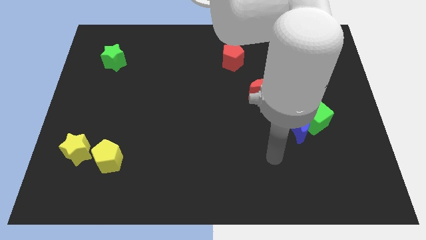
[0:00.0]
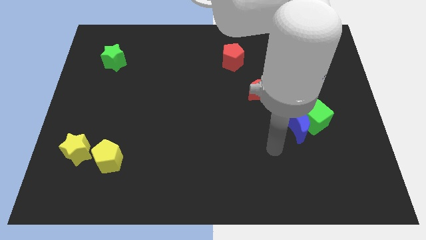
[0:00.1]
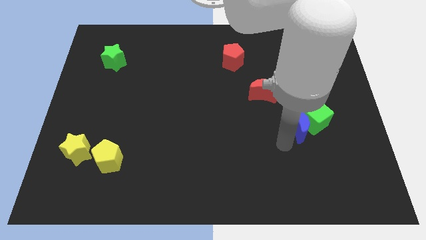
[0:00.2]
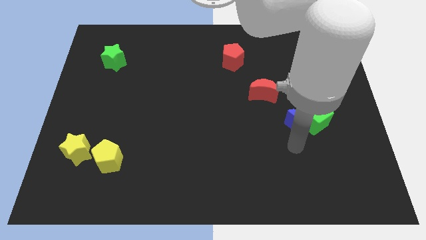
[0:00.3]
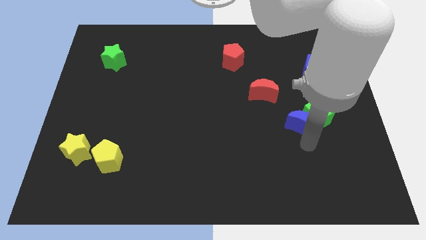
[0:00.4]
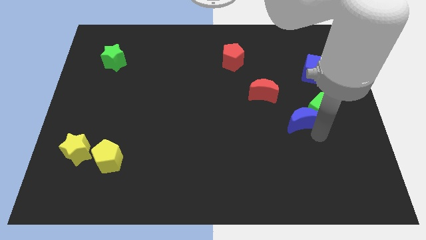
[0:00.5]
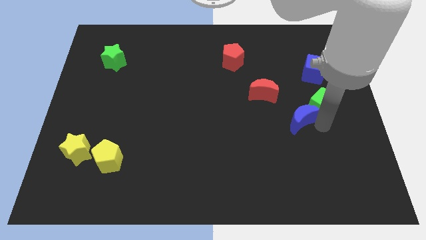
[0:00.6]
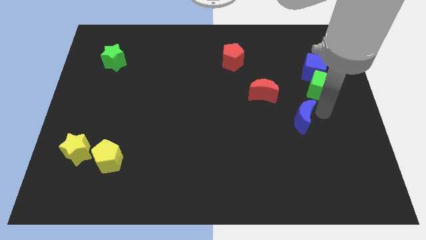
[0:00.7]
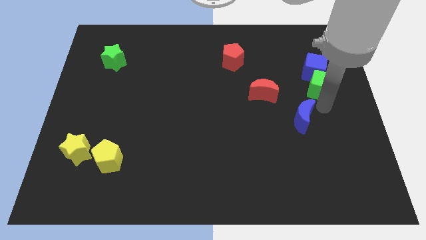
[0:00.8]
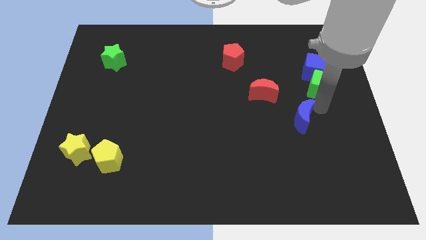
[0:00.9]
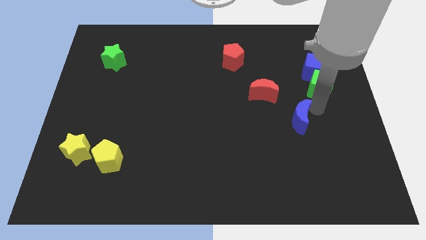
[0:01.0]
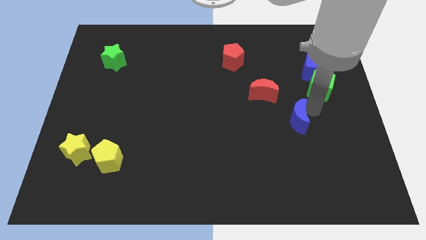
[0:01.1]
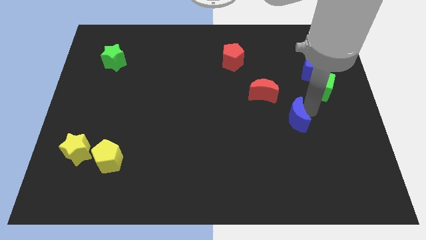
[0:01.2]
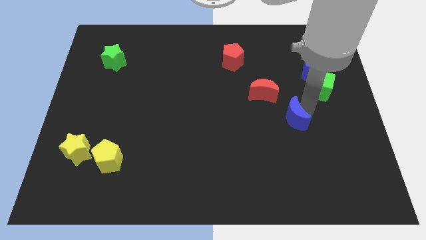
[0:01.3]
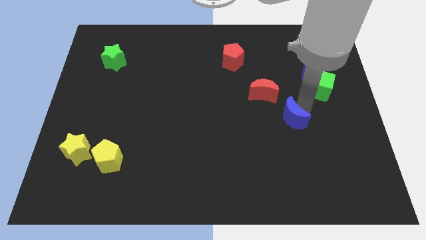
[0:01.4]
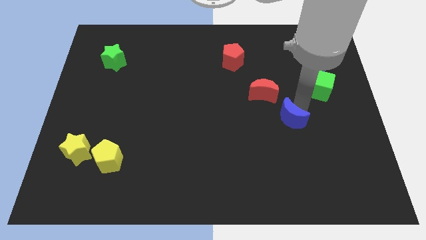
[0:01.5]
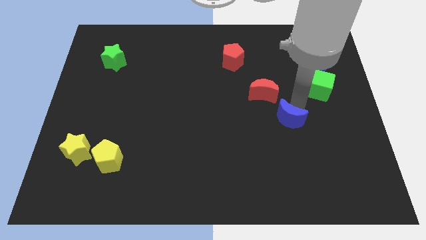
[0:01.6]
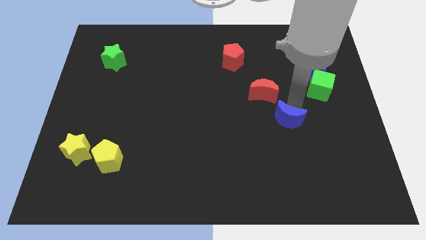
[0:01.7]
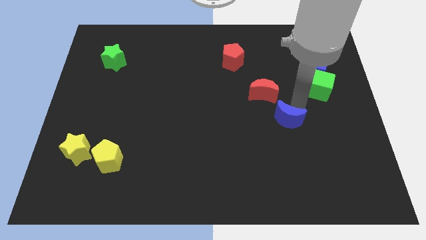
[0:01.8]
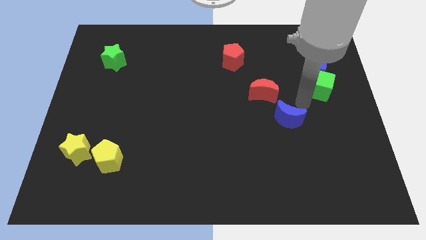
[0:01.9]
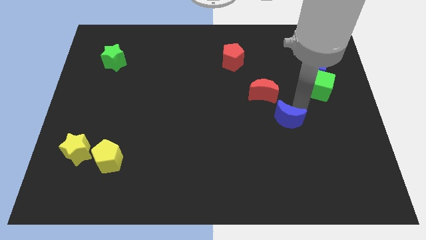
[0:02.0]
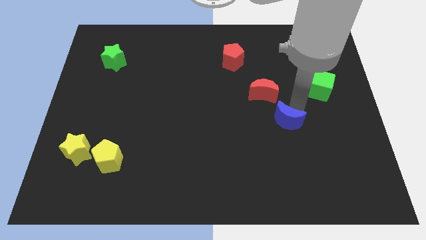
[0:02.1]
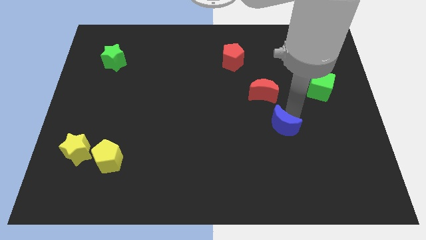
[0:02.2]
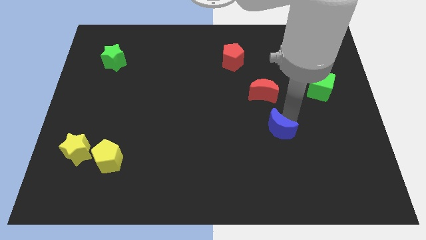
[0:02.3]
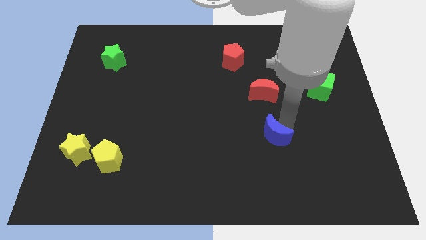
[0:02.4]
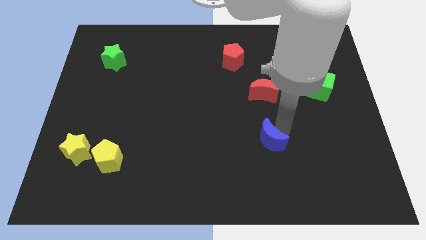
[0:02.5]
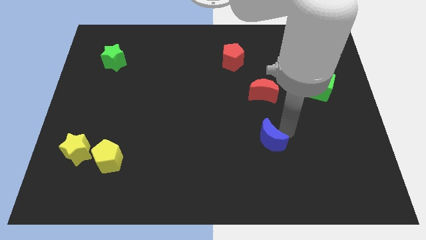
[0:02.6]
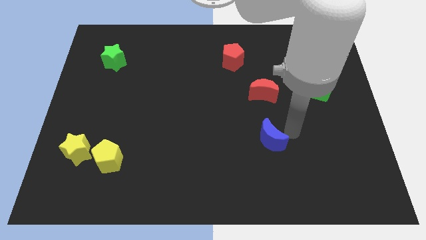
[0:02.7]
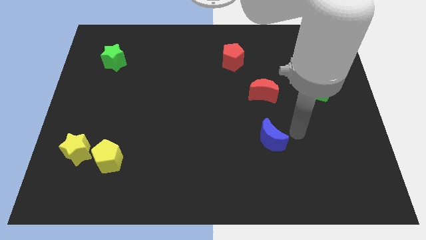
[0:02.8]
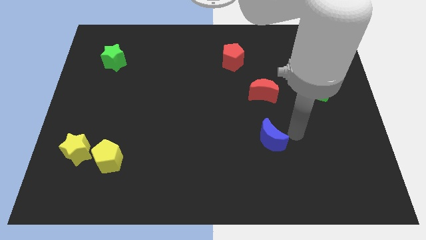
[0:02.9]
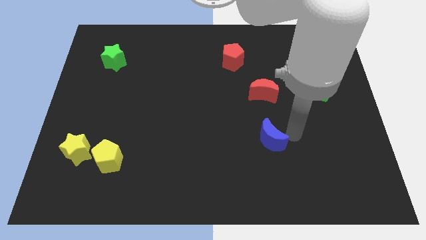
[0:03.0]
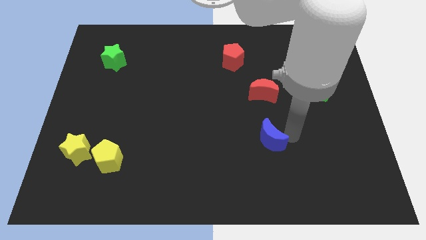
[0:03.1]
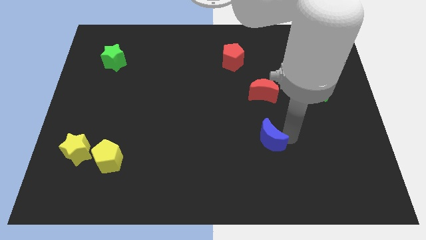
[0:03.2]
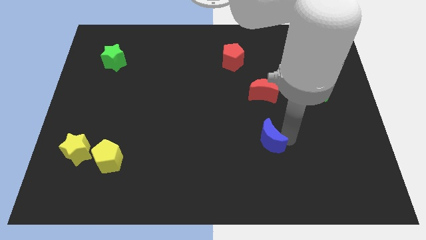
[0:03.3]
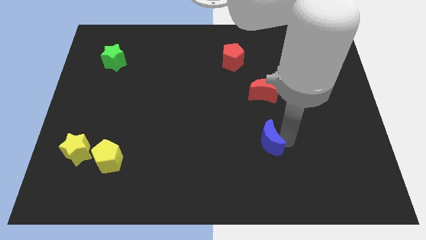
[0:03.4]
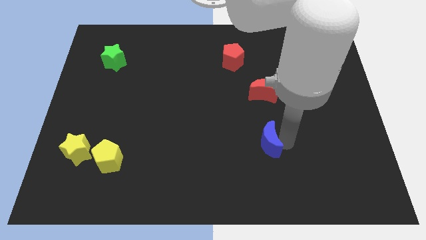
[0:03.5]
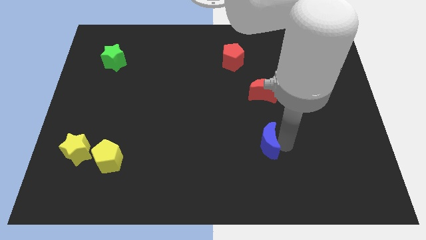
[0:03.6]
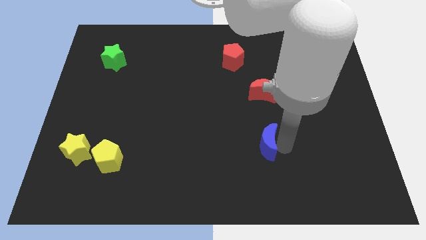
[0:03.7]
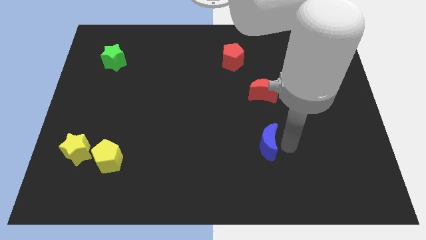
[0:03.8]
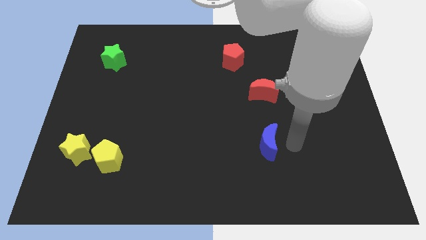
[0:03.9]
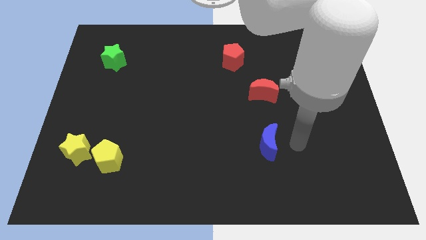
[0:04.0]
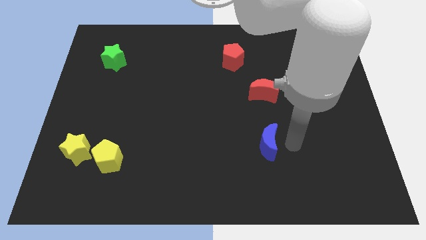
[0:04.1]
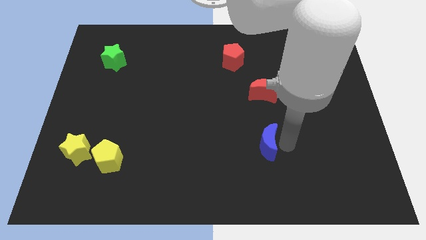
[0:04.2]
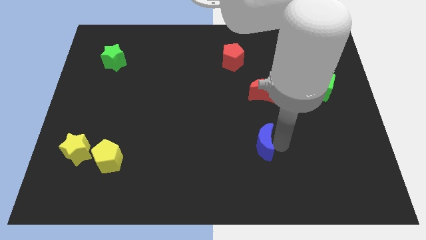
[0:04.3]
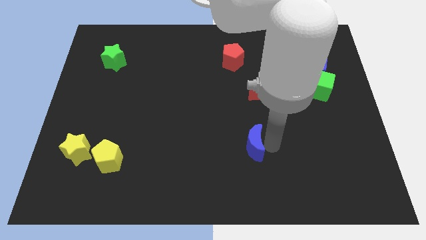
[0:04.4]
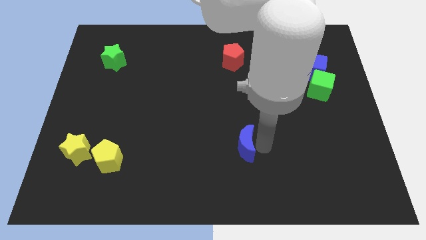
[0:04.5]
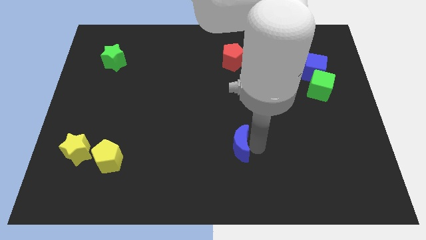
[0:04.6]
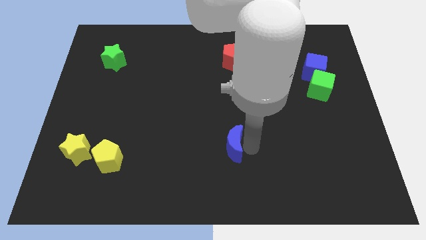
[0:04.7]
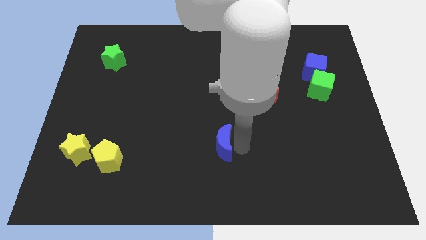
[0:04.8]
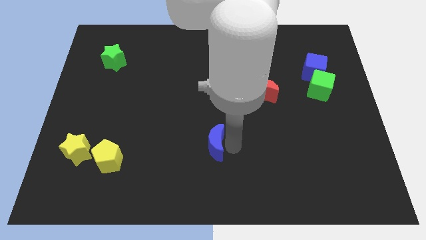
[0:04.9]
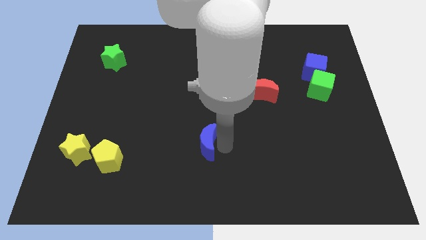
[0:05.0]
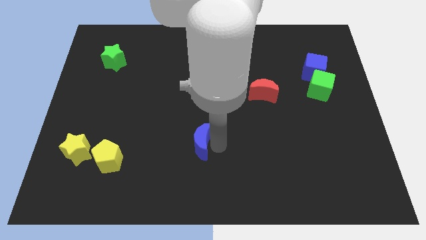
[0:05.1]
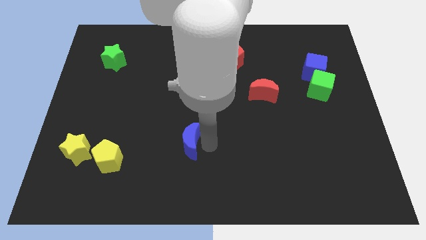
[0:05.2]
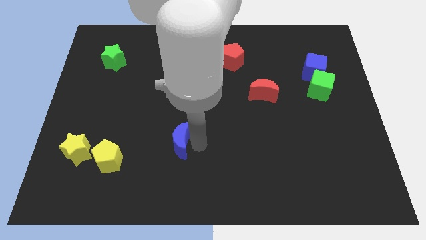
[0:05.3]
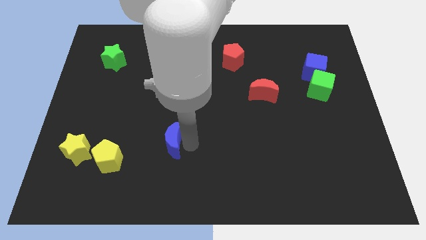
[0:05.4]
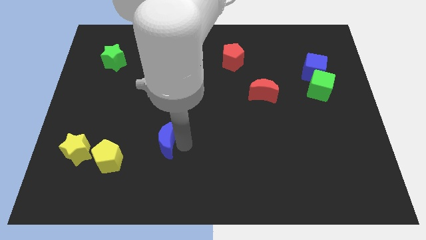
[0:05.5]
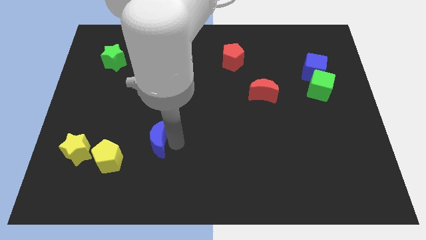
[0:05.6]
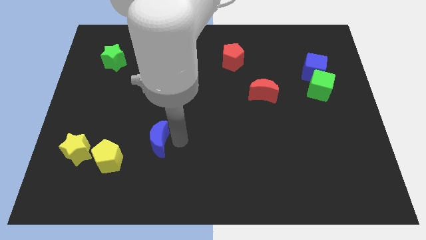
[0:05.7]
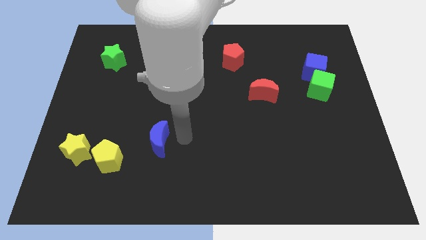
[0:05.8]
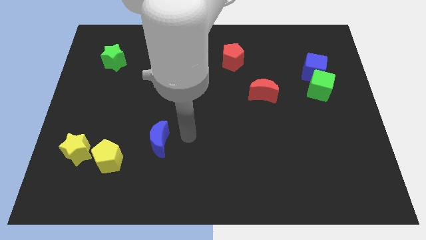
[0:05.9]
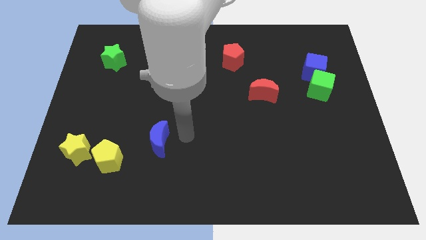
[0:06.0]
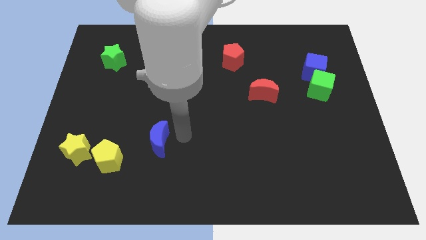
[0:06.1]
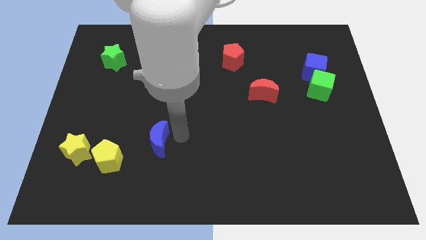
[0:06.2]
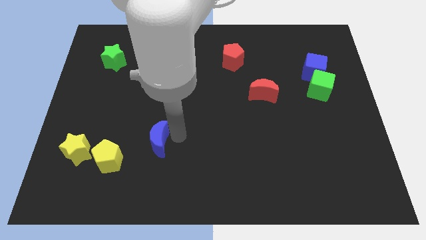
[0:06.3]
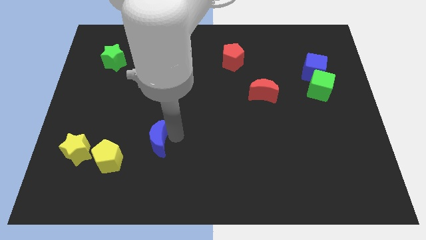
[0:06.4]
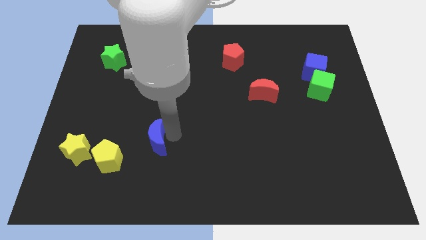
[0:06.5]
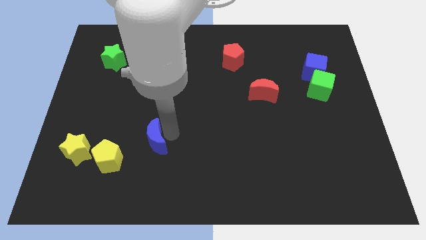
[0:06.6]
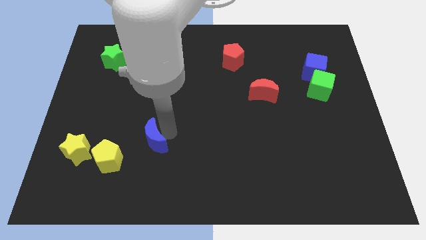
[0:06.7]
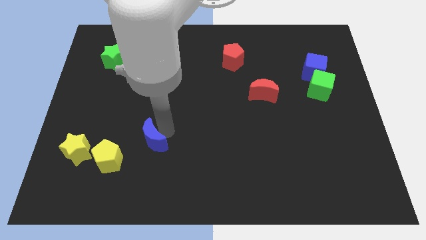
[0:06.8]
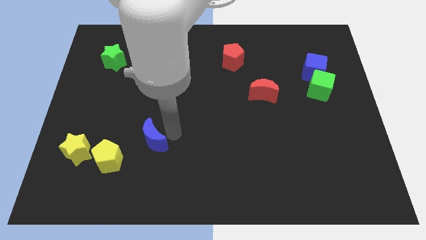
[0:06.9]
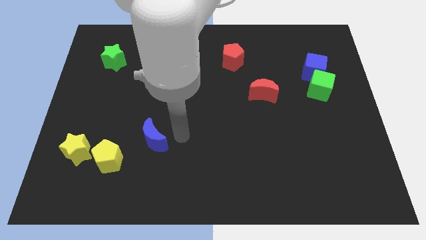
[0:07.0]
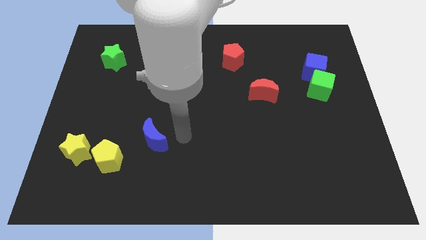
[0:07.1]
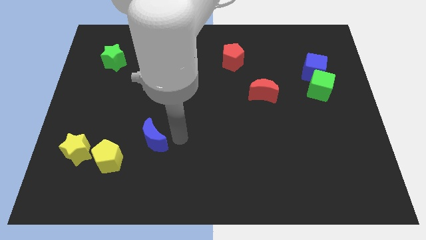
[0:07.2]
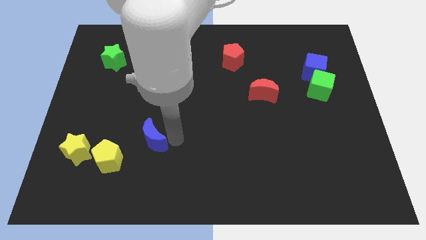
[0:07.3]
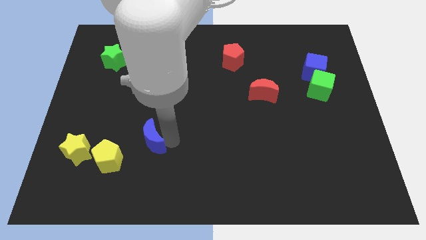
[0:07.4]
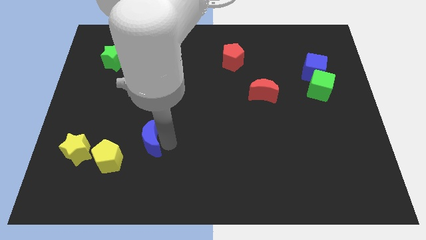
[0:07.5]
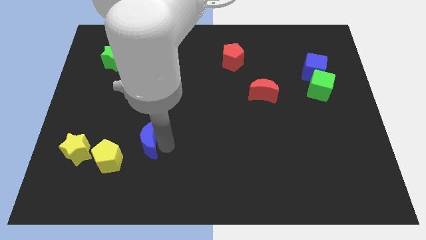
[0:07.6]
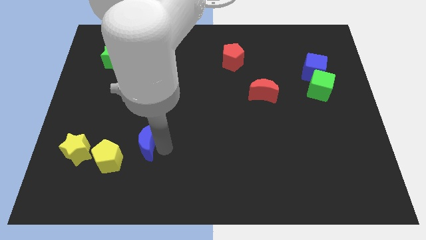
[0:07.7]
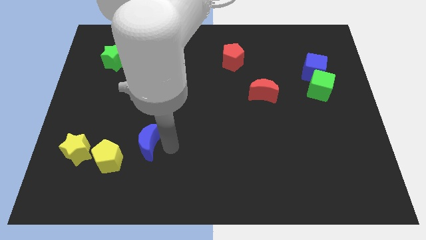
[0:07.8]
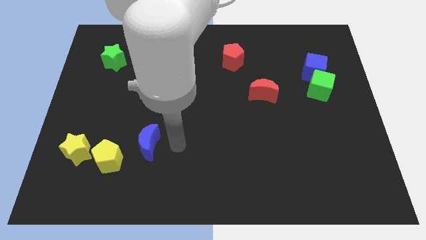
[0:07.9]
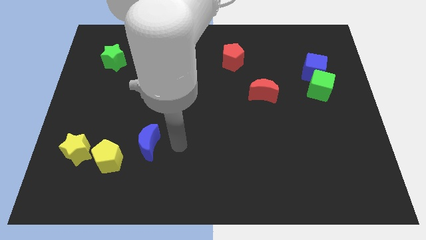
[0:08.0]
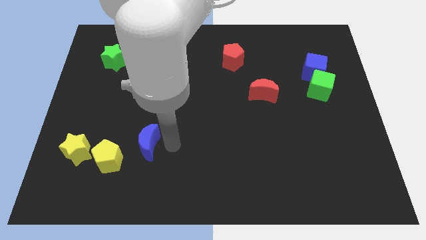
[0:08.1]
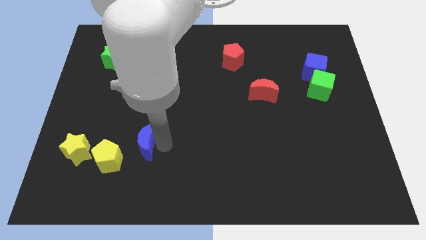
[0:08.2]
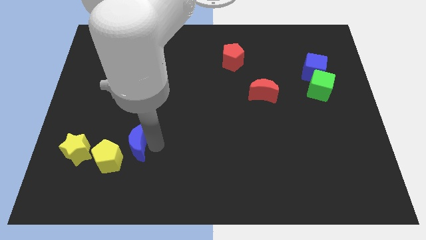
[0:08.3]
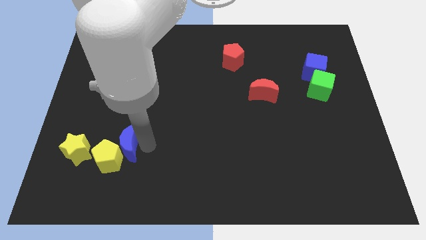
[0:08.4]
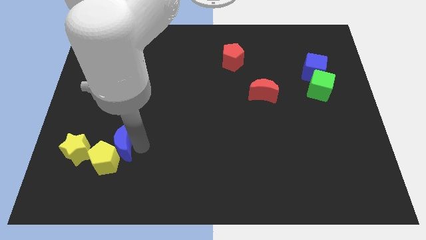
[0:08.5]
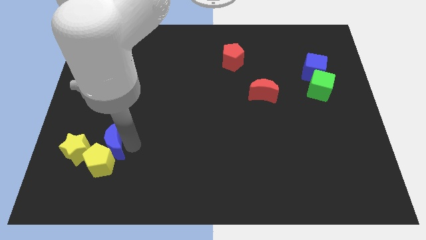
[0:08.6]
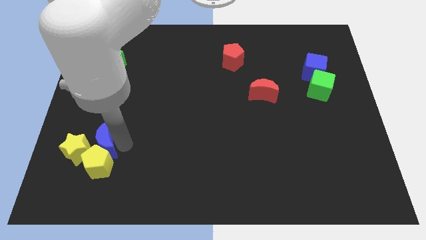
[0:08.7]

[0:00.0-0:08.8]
move the blue moon close to the yellow star
